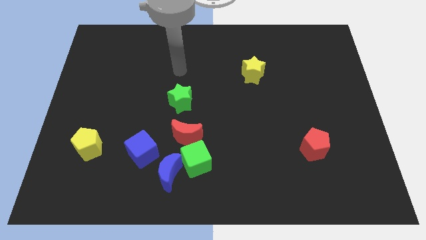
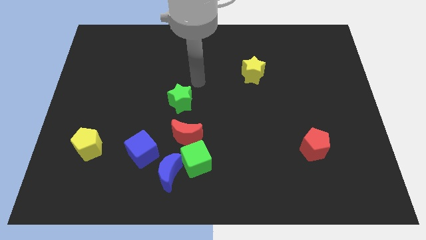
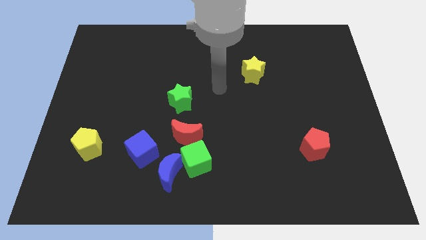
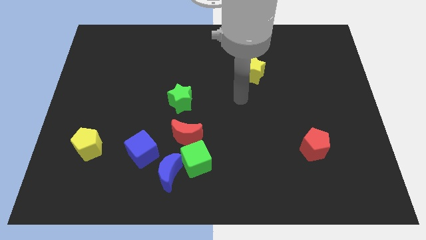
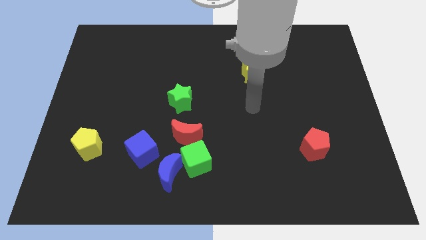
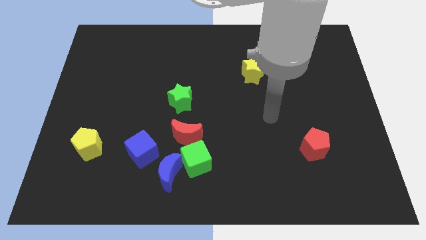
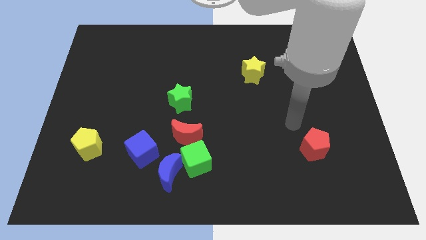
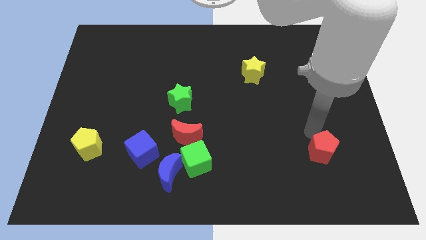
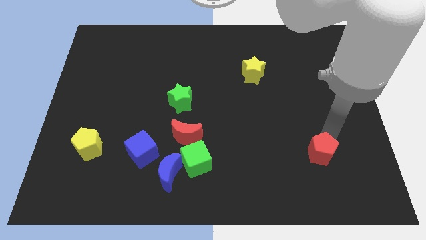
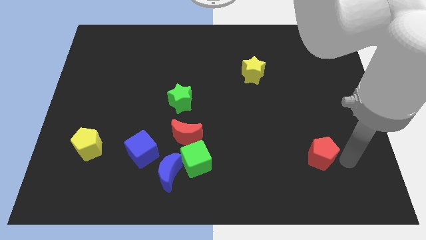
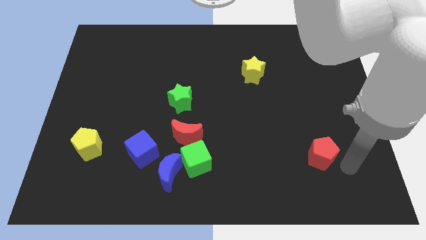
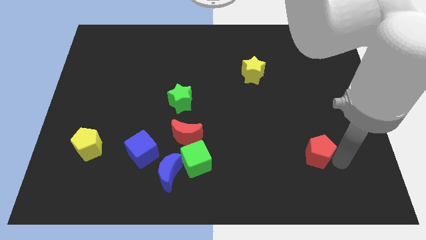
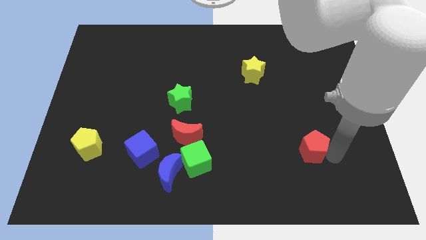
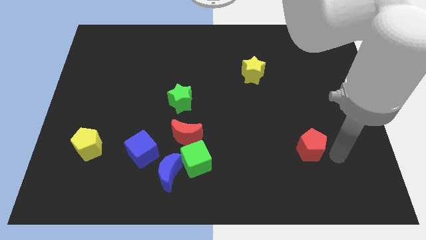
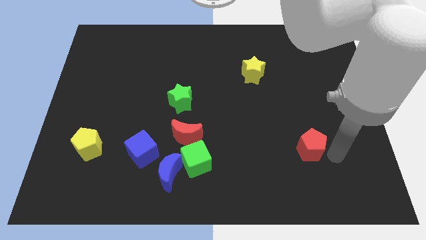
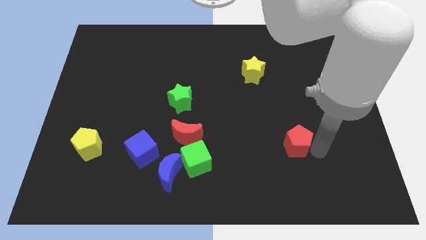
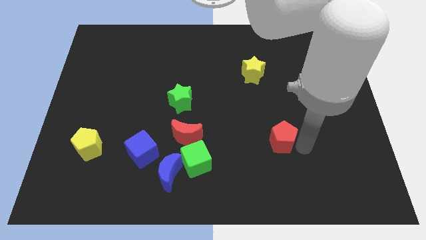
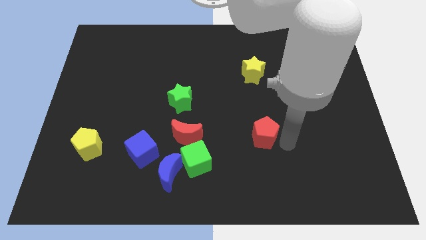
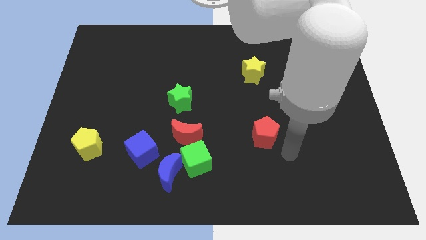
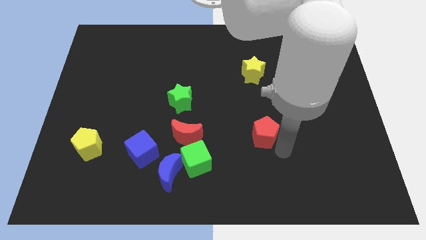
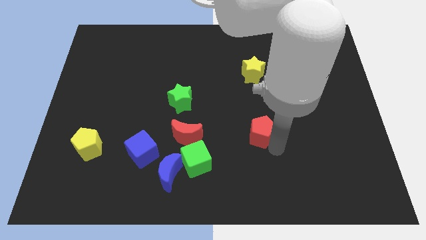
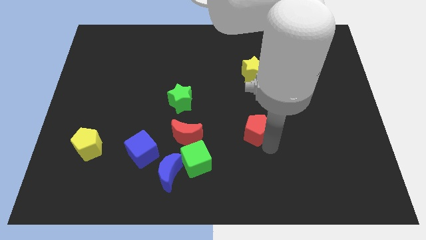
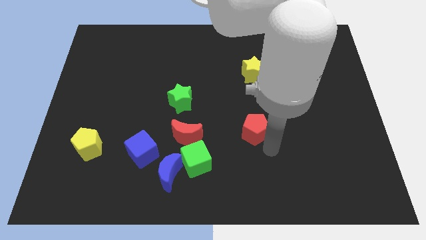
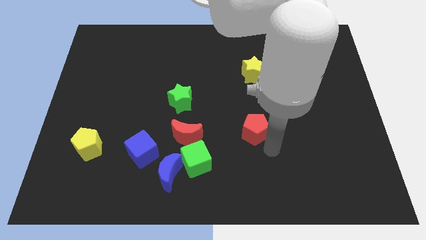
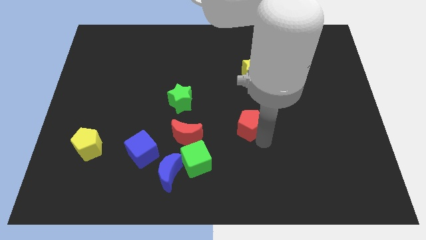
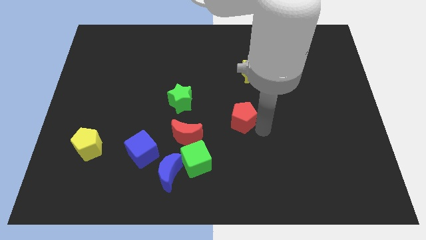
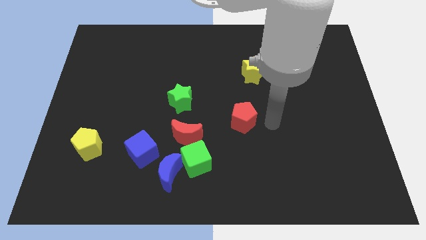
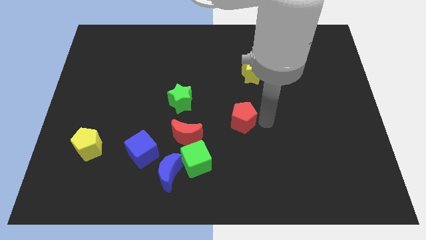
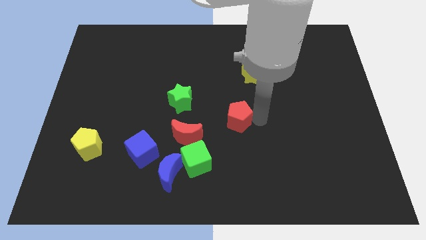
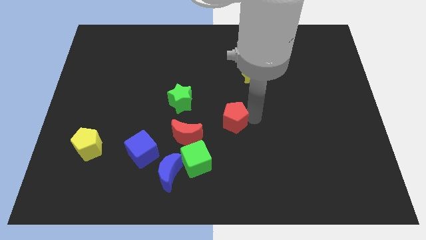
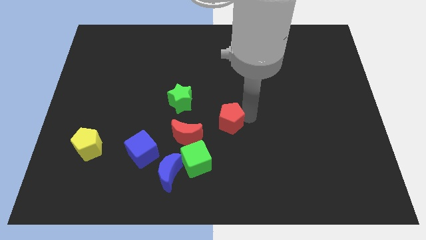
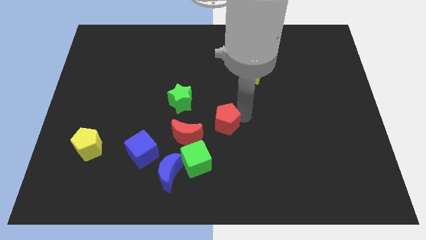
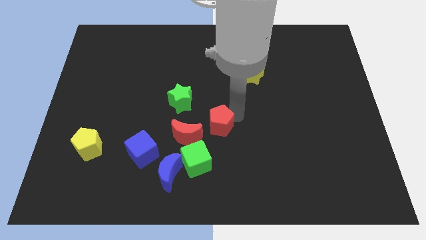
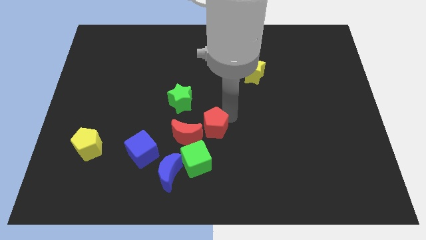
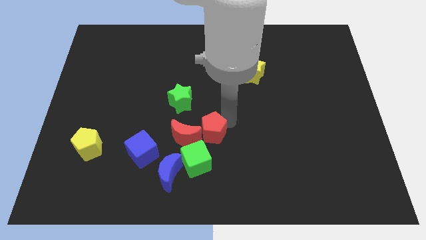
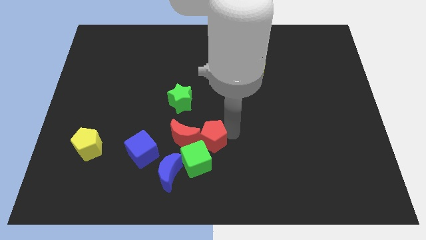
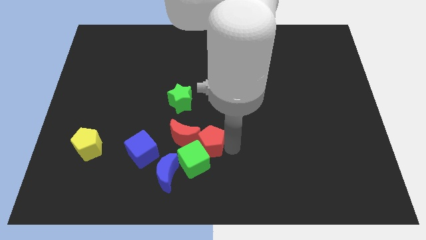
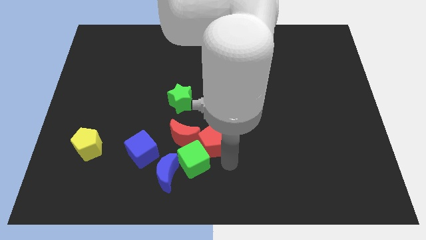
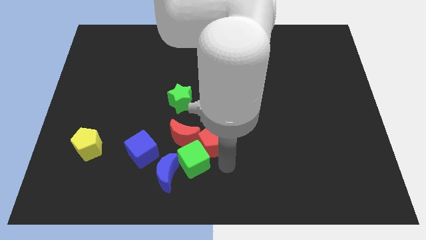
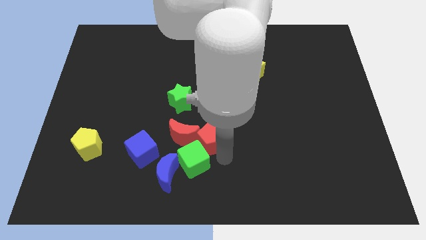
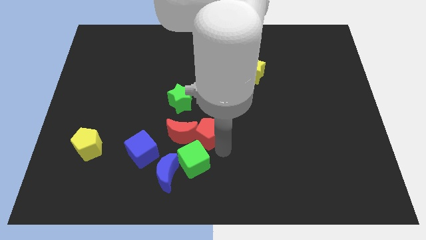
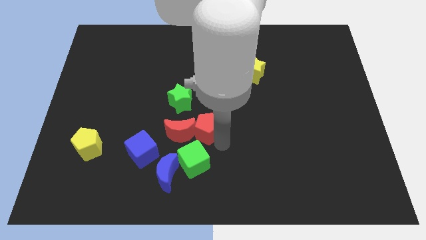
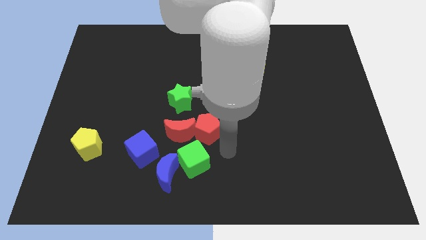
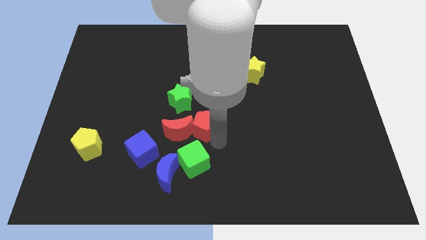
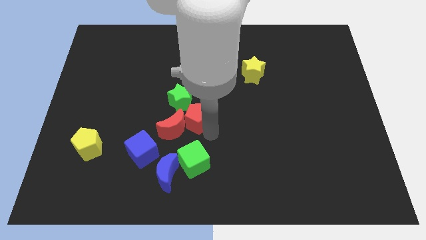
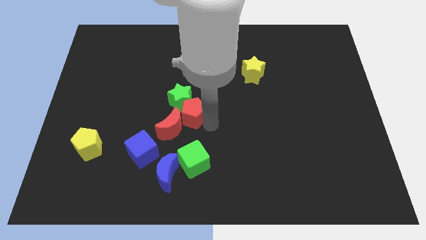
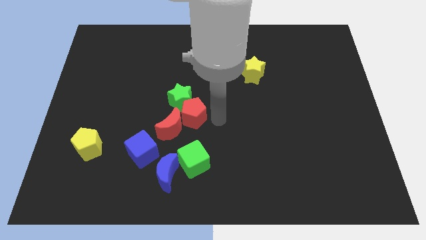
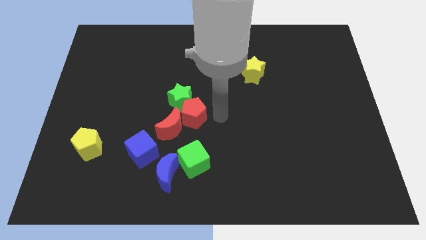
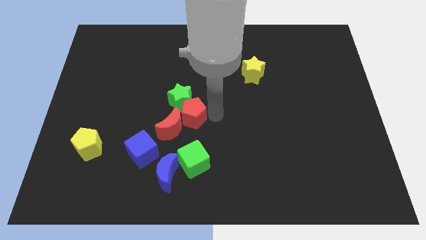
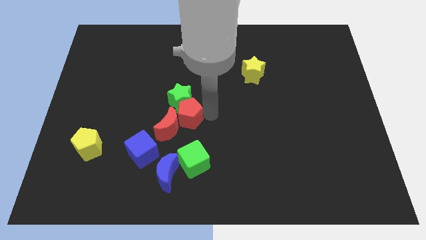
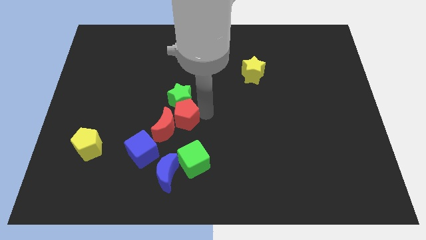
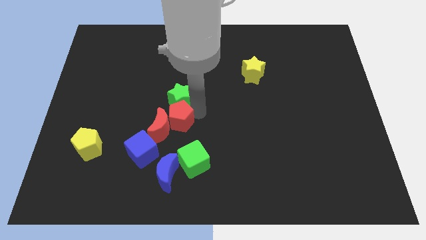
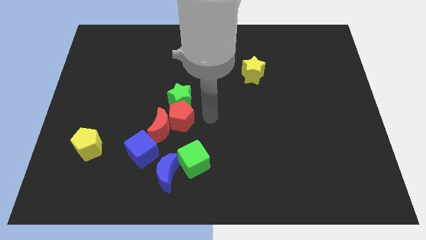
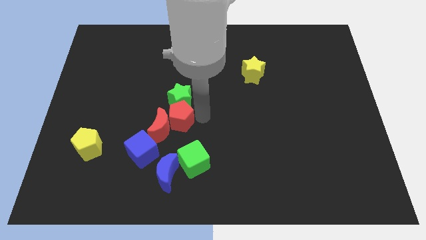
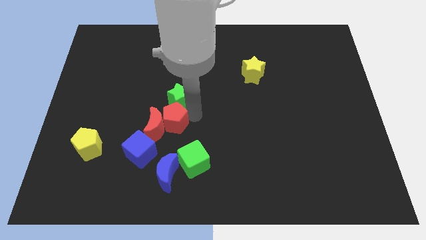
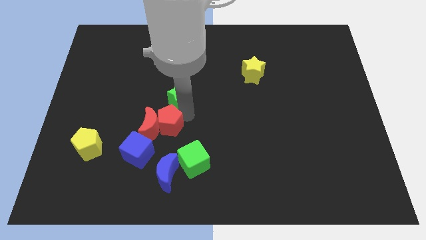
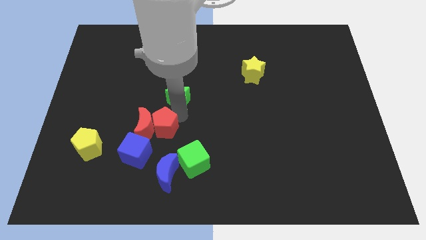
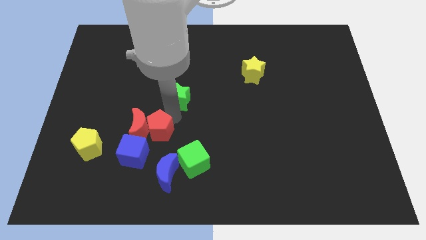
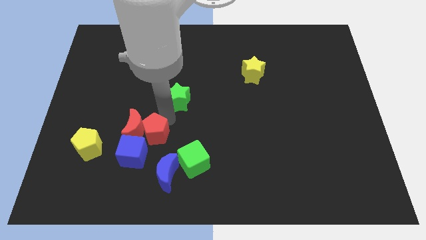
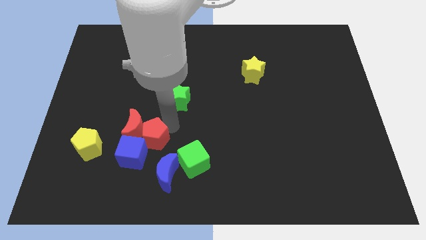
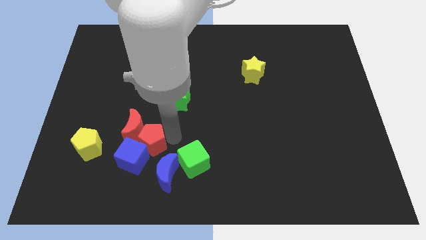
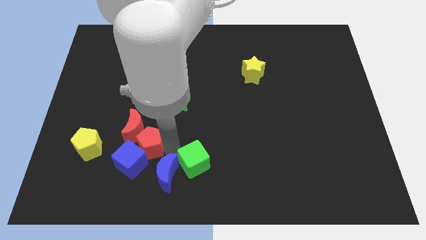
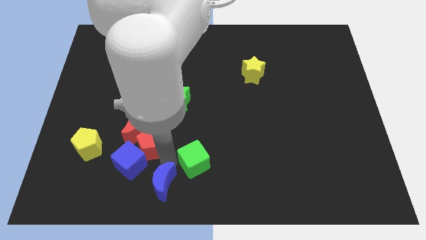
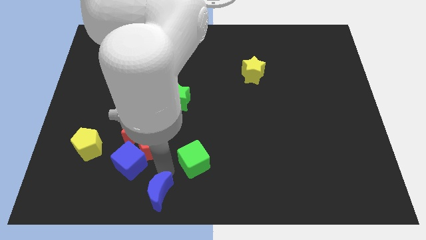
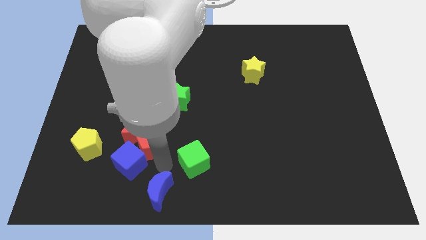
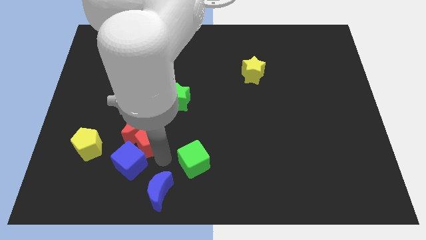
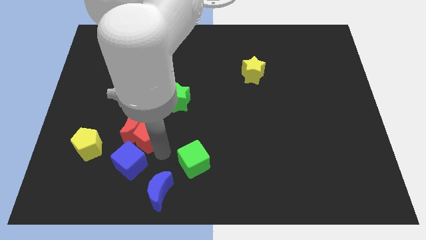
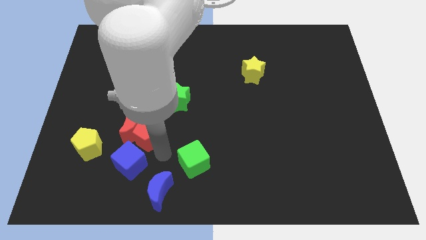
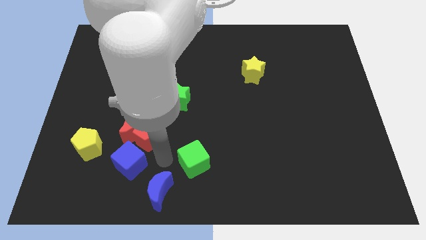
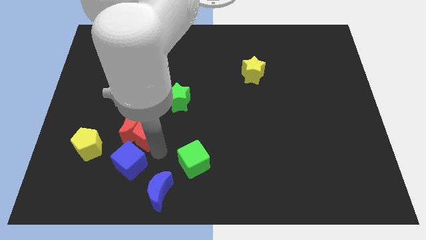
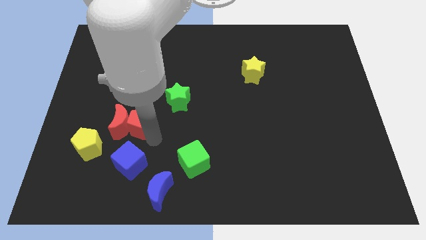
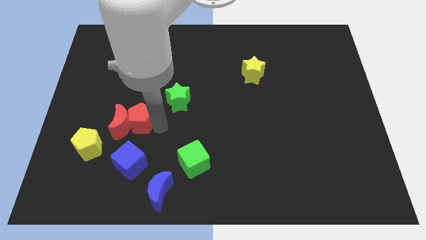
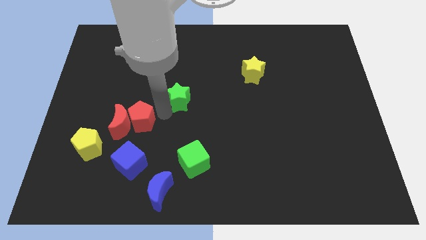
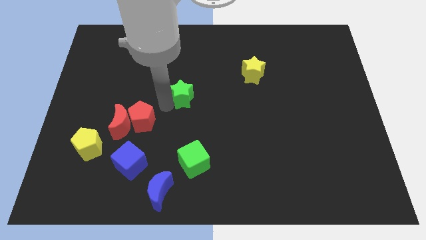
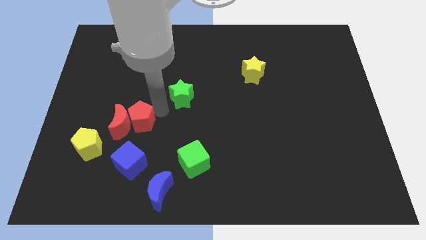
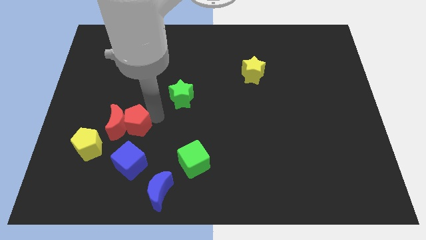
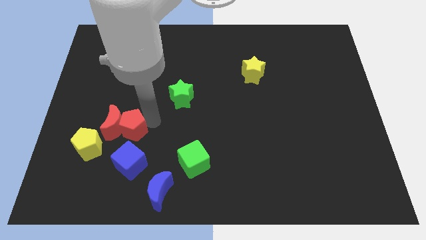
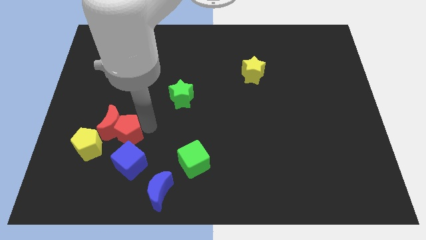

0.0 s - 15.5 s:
slide the red pentagon to the top left of the blue cube
